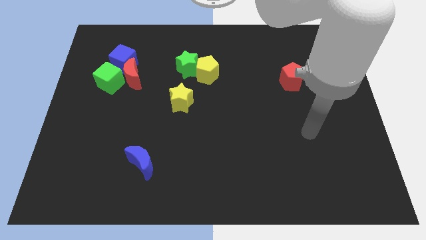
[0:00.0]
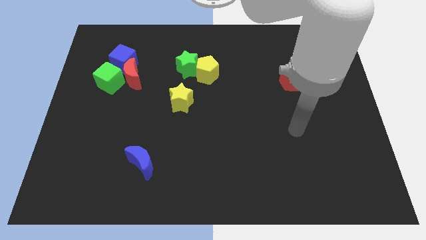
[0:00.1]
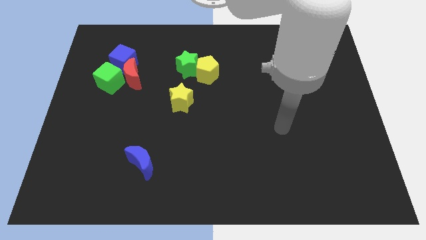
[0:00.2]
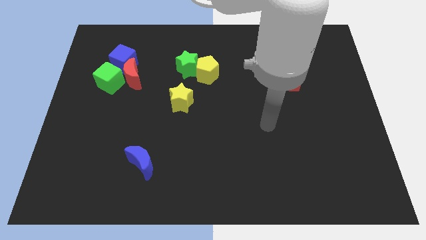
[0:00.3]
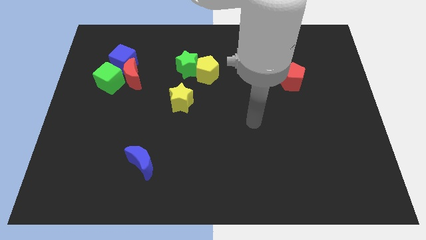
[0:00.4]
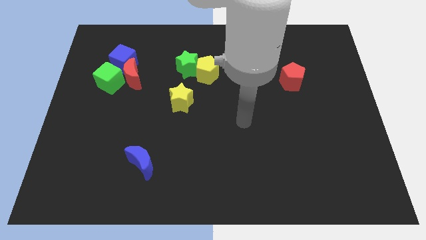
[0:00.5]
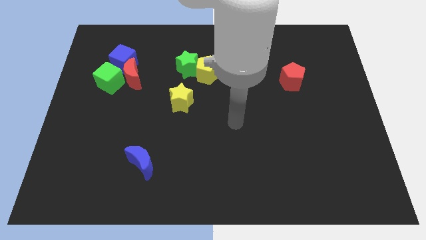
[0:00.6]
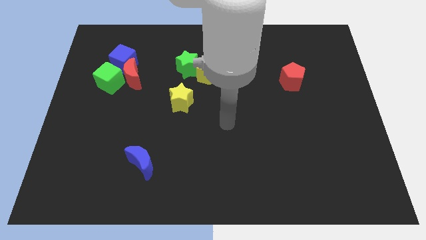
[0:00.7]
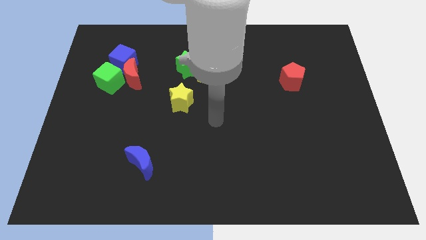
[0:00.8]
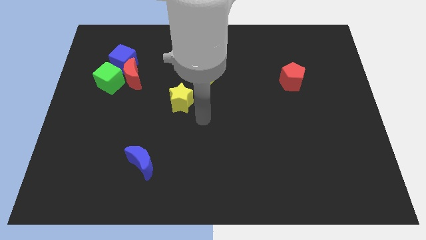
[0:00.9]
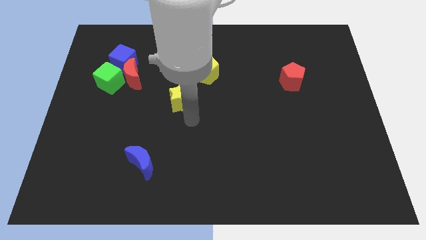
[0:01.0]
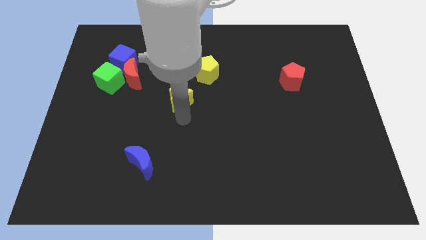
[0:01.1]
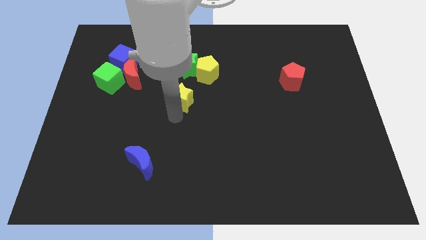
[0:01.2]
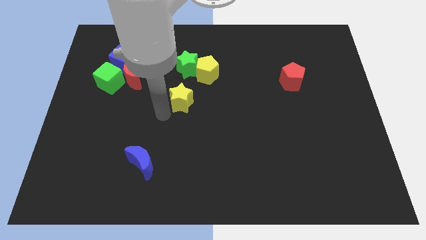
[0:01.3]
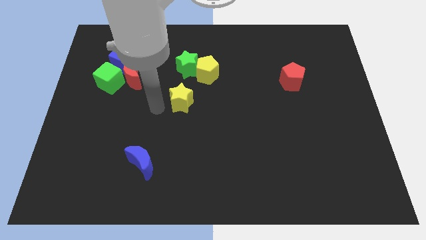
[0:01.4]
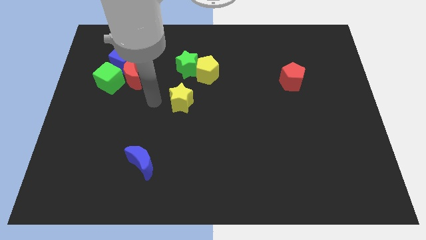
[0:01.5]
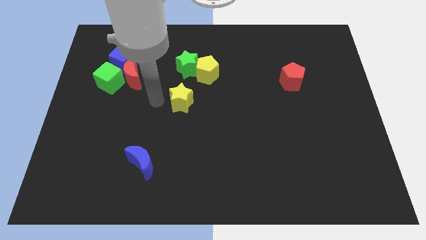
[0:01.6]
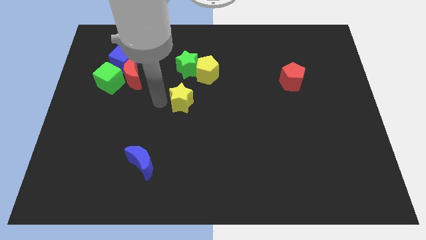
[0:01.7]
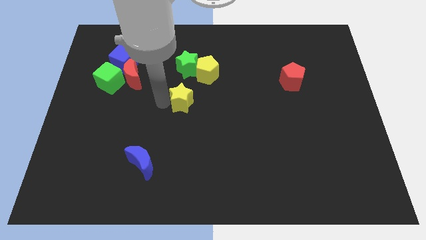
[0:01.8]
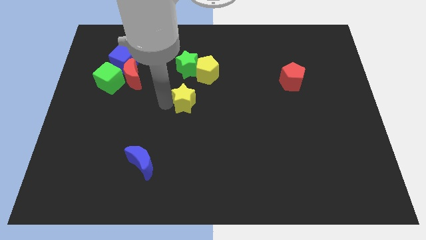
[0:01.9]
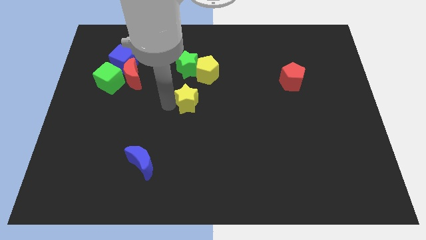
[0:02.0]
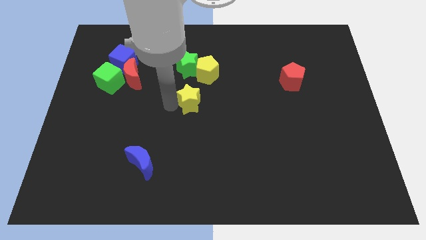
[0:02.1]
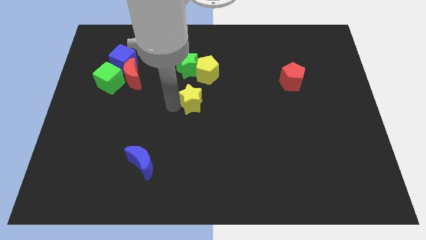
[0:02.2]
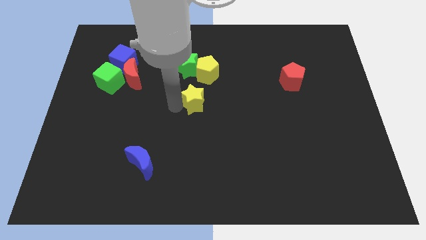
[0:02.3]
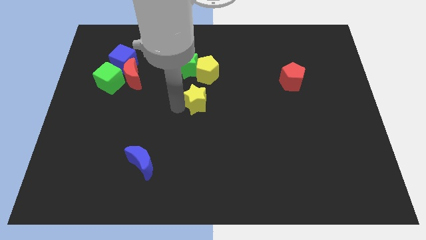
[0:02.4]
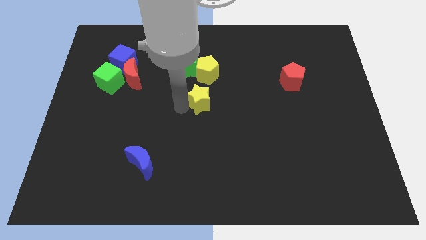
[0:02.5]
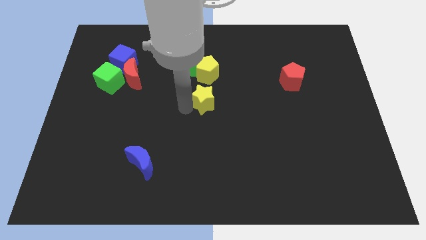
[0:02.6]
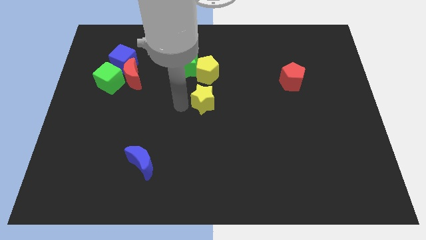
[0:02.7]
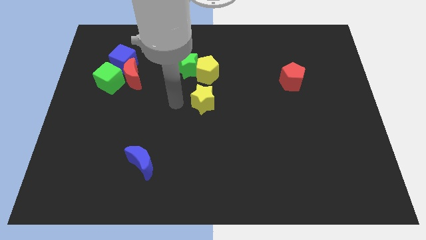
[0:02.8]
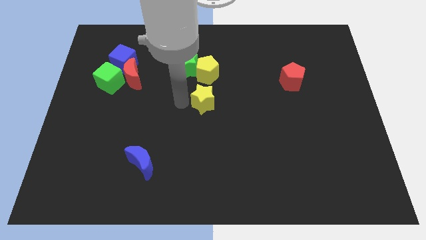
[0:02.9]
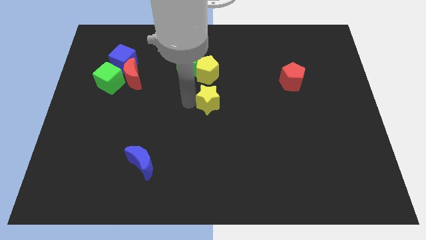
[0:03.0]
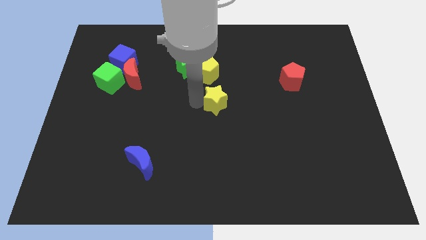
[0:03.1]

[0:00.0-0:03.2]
slightly slide the yellow star to the right

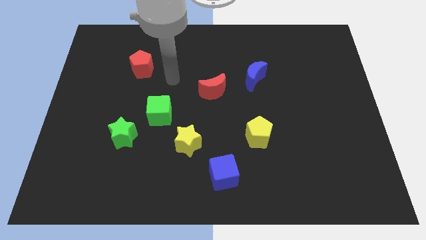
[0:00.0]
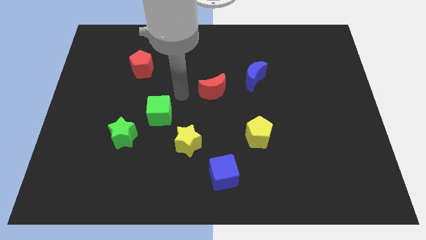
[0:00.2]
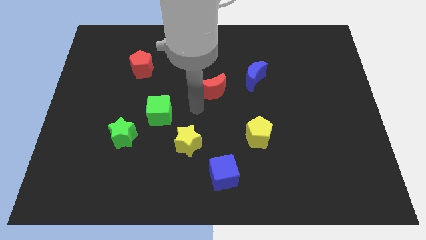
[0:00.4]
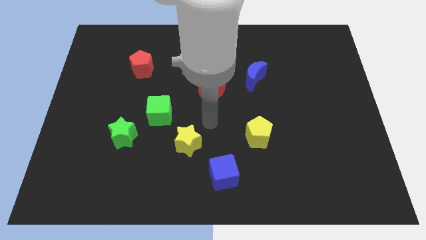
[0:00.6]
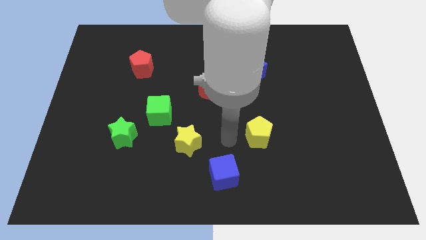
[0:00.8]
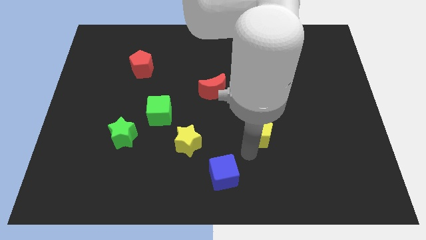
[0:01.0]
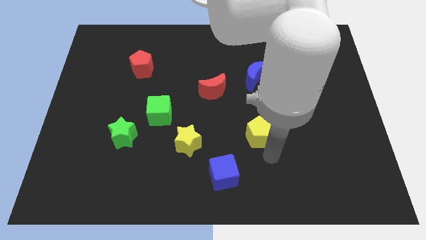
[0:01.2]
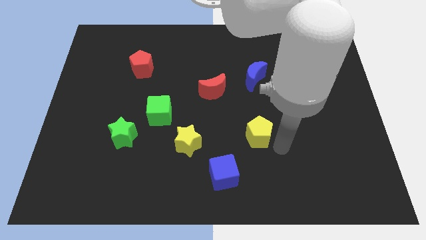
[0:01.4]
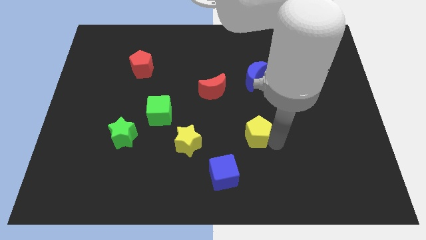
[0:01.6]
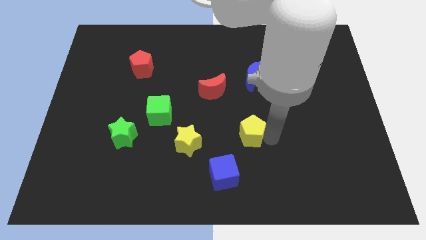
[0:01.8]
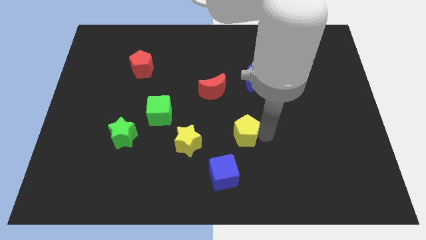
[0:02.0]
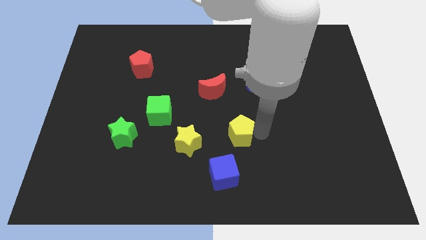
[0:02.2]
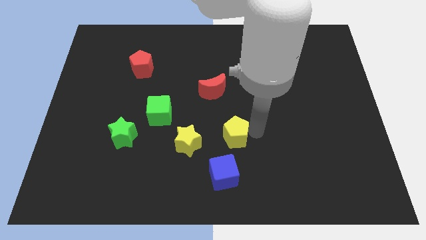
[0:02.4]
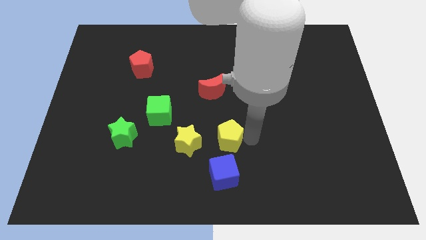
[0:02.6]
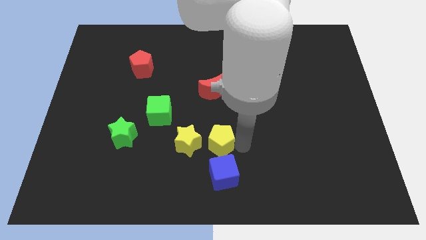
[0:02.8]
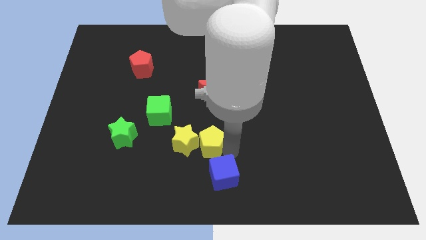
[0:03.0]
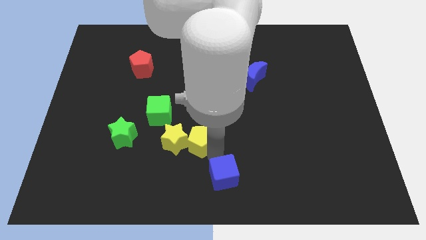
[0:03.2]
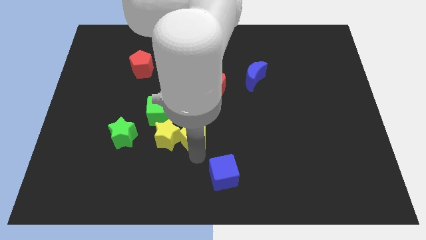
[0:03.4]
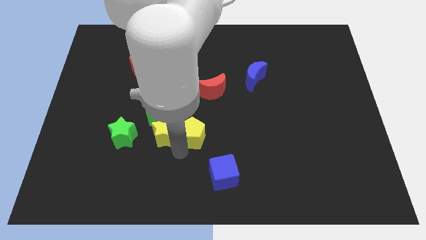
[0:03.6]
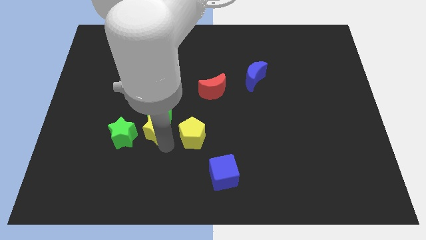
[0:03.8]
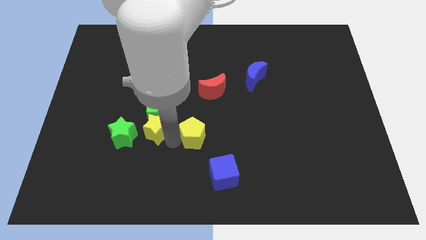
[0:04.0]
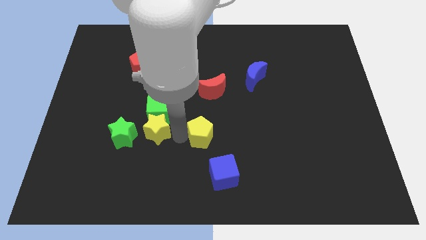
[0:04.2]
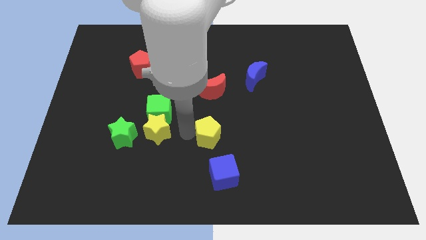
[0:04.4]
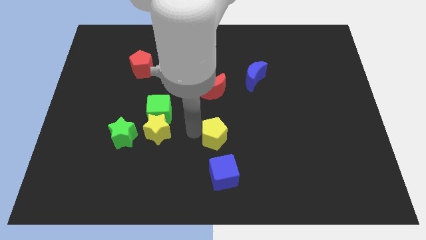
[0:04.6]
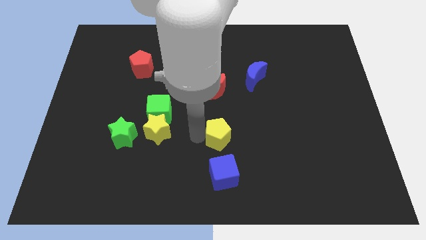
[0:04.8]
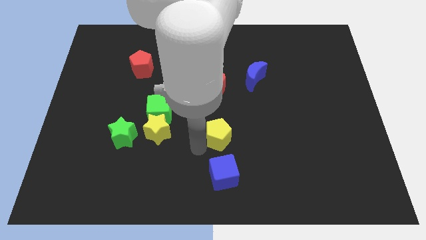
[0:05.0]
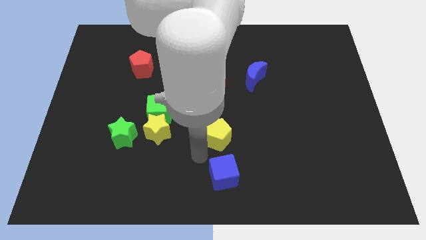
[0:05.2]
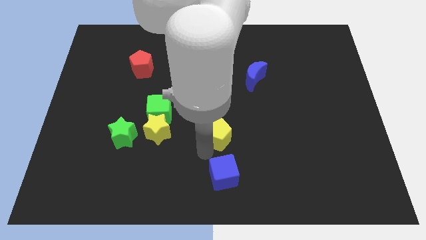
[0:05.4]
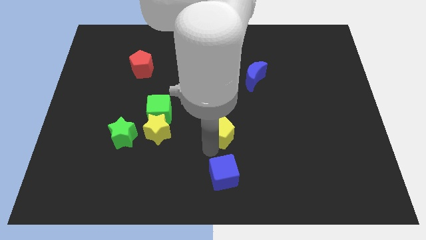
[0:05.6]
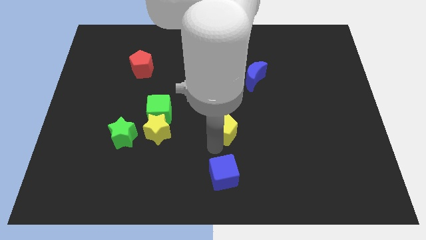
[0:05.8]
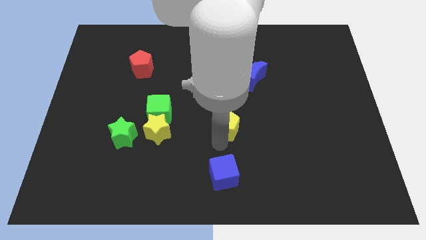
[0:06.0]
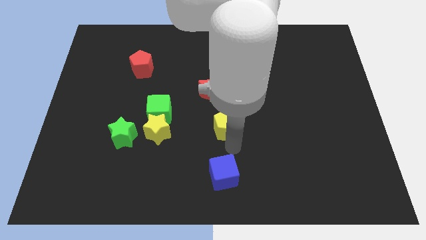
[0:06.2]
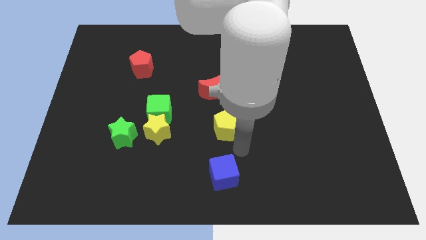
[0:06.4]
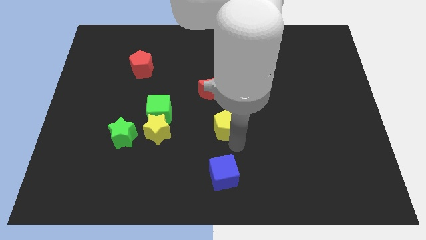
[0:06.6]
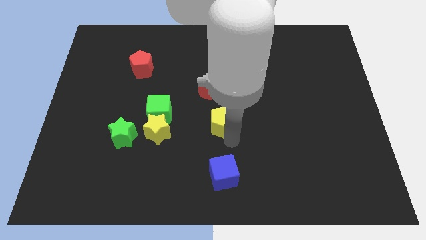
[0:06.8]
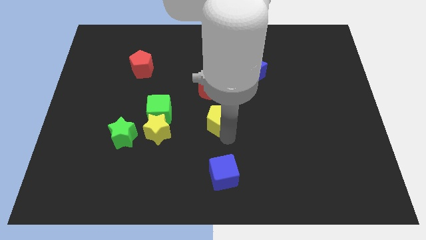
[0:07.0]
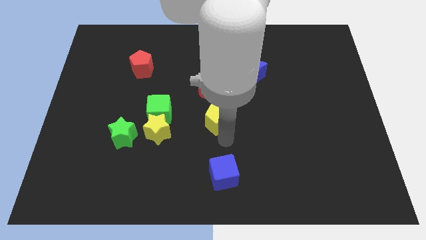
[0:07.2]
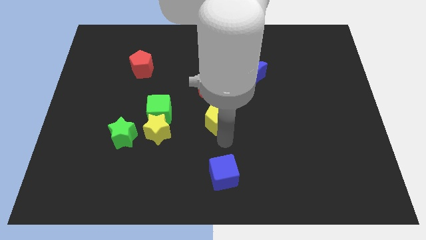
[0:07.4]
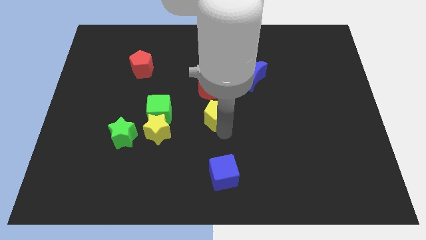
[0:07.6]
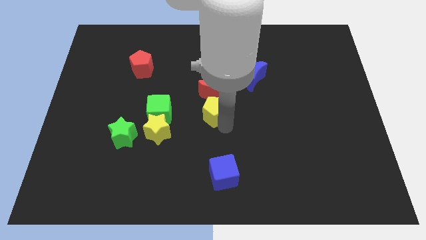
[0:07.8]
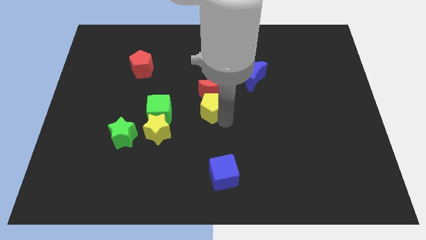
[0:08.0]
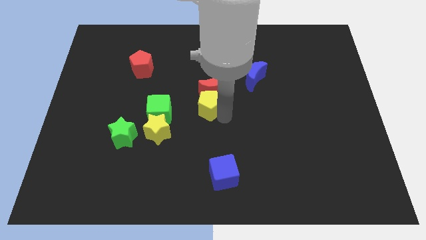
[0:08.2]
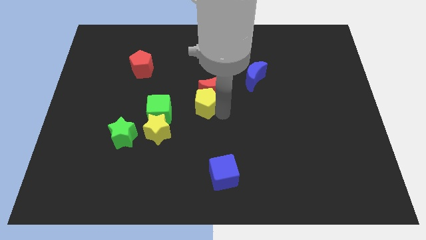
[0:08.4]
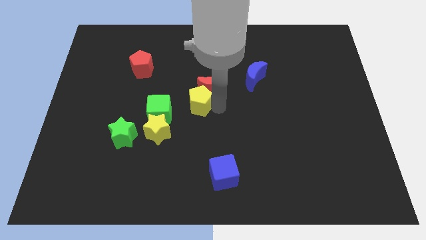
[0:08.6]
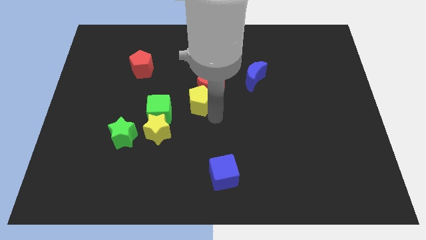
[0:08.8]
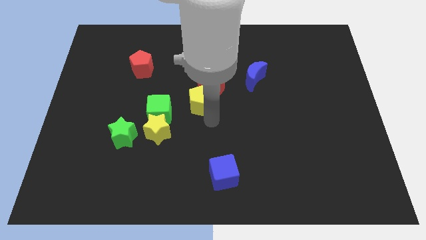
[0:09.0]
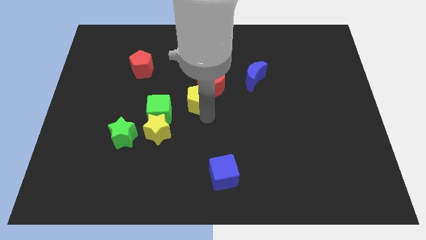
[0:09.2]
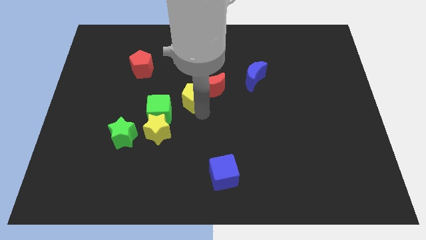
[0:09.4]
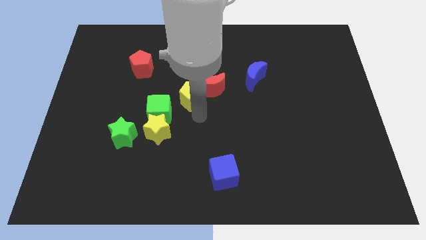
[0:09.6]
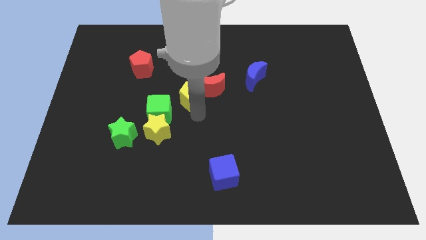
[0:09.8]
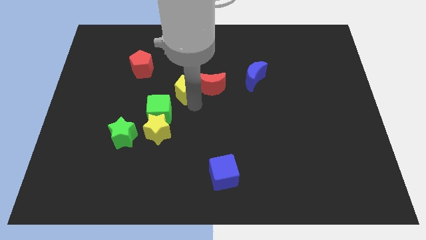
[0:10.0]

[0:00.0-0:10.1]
slide the yellow pentagon upwards and then left

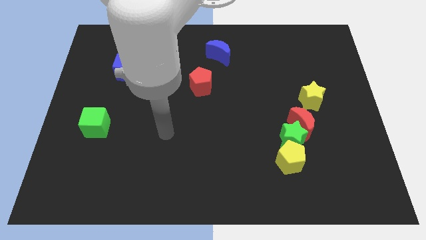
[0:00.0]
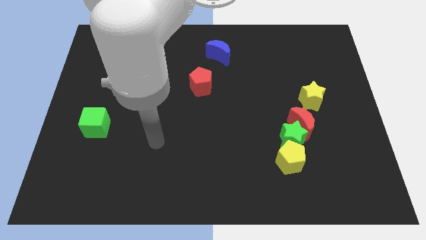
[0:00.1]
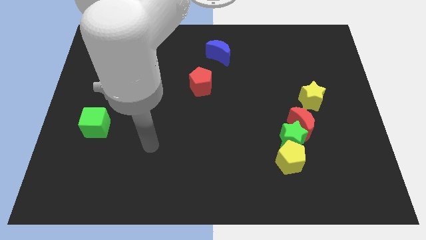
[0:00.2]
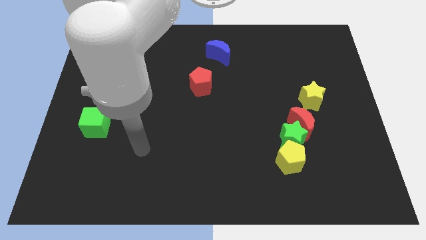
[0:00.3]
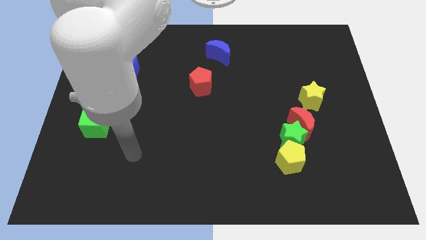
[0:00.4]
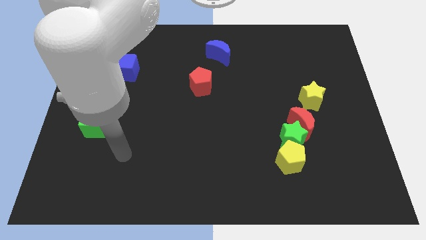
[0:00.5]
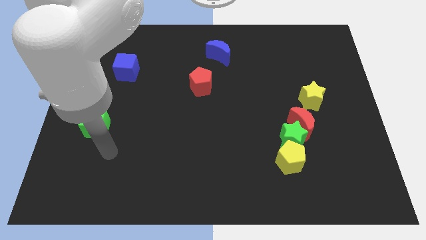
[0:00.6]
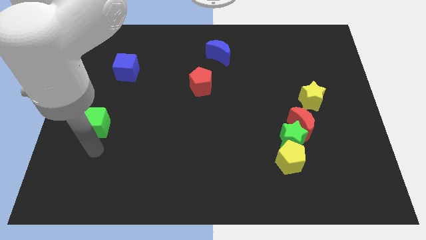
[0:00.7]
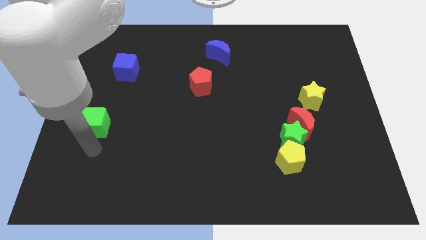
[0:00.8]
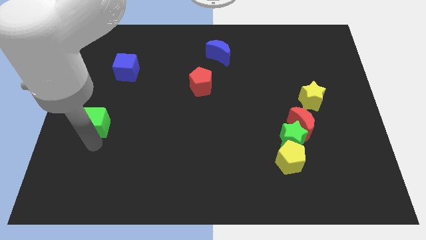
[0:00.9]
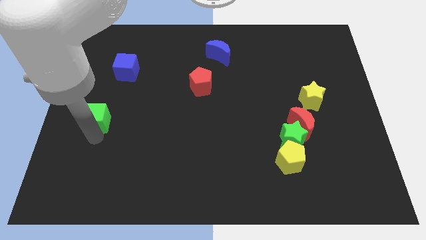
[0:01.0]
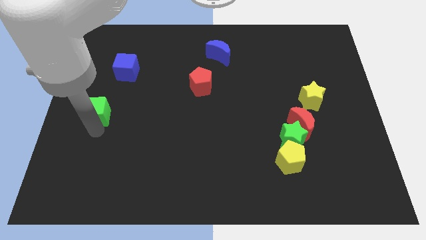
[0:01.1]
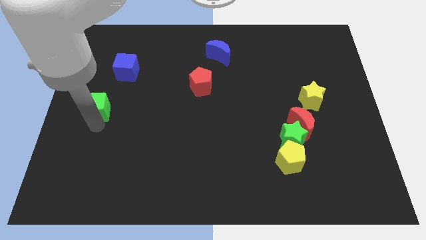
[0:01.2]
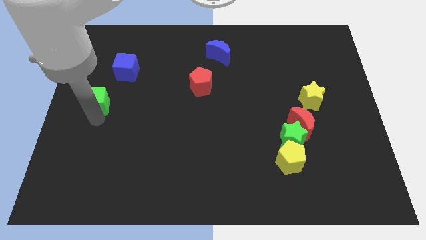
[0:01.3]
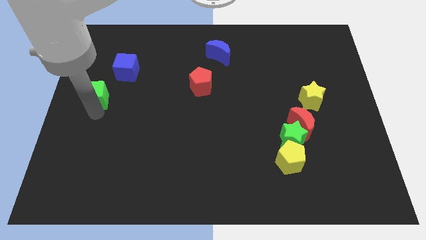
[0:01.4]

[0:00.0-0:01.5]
slightly push the green cube upwards
